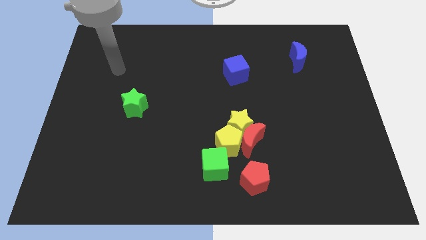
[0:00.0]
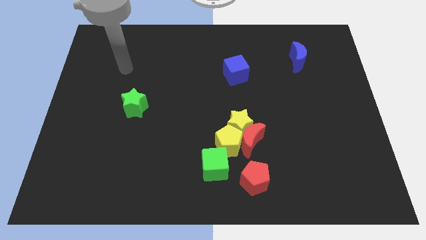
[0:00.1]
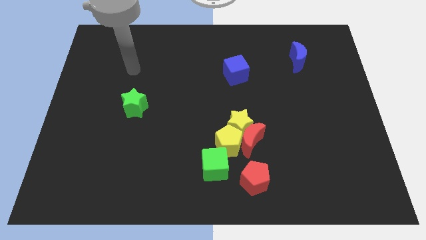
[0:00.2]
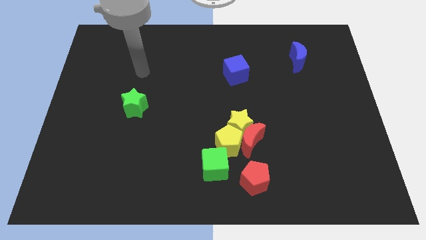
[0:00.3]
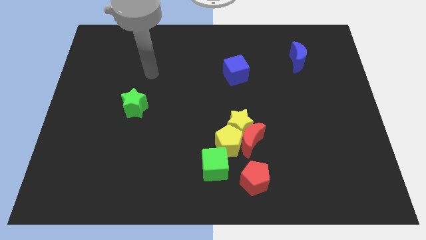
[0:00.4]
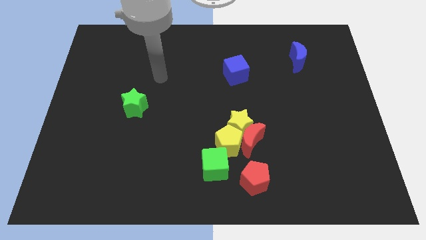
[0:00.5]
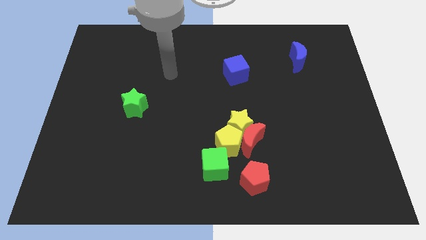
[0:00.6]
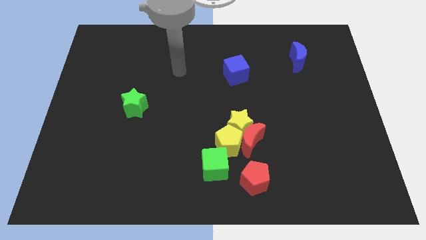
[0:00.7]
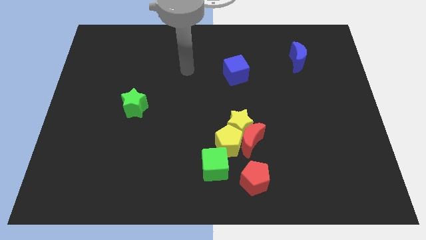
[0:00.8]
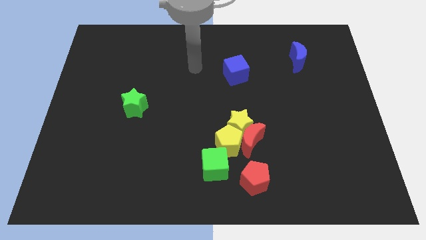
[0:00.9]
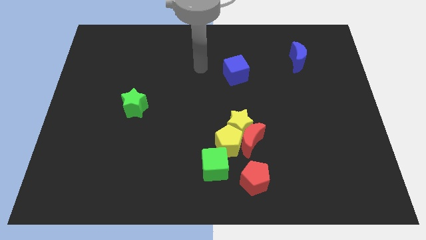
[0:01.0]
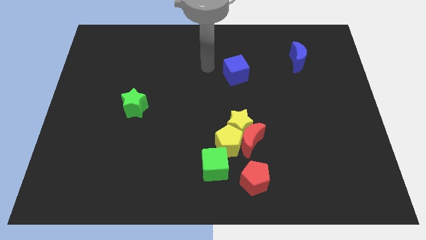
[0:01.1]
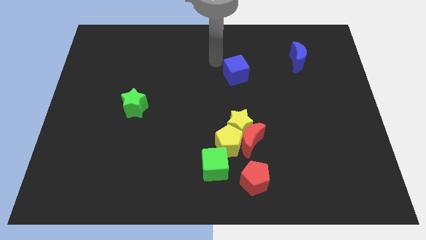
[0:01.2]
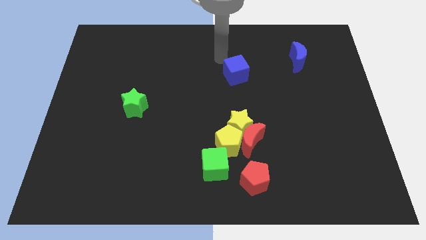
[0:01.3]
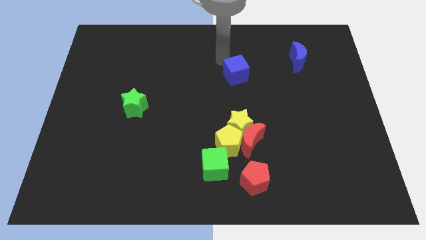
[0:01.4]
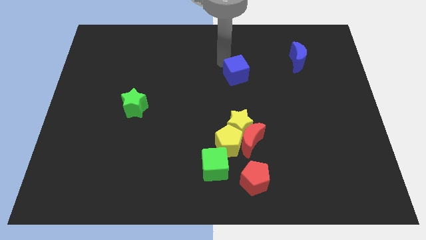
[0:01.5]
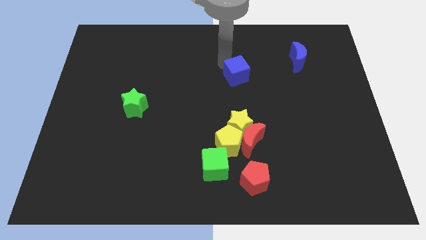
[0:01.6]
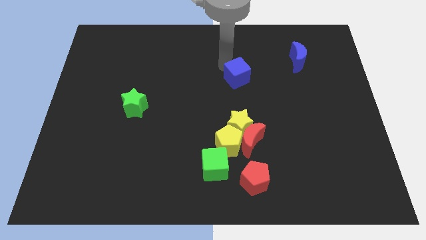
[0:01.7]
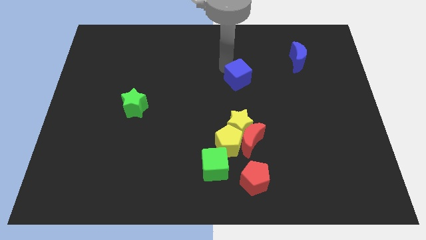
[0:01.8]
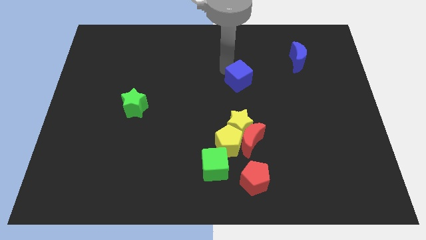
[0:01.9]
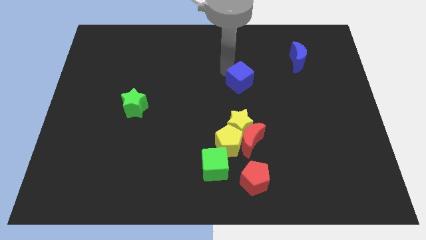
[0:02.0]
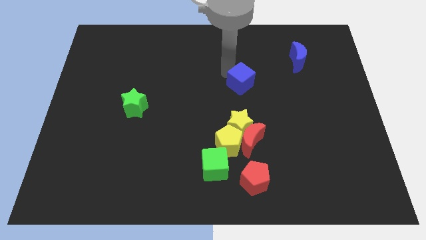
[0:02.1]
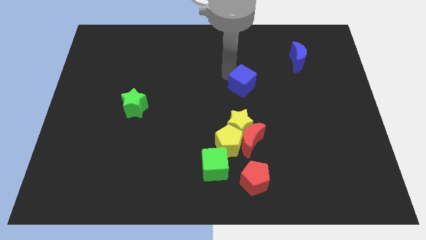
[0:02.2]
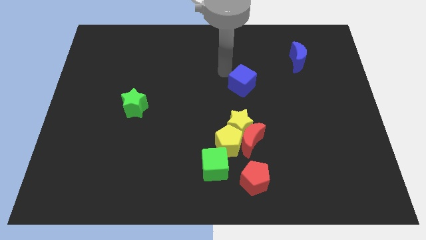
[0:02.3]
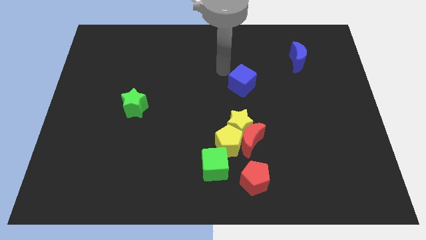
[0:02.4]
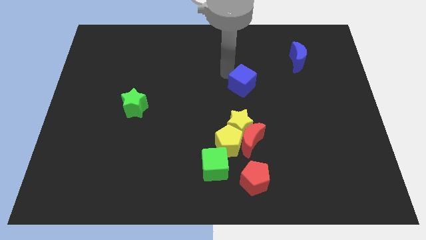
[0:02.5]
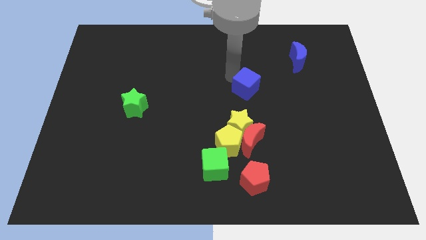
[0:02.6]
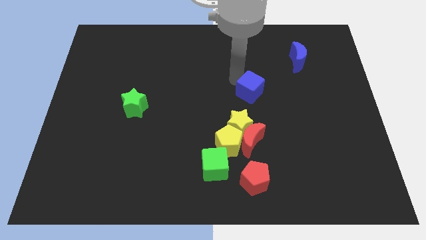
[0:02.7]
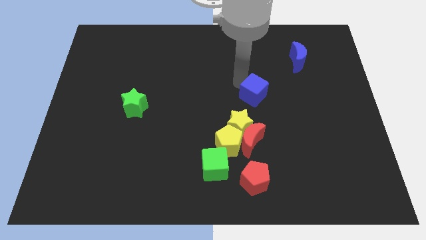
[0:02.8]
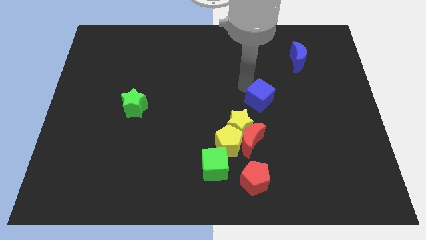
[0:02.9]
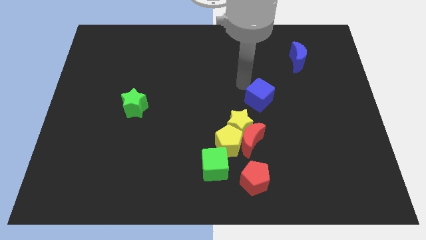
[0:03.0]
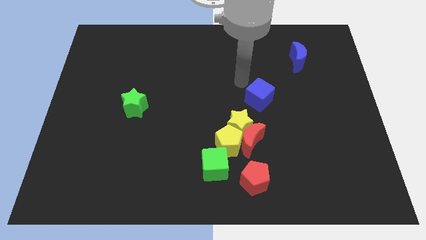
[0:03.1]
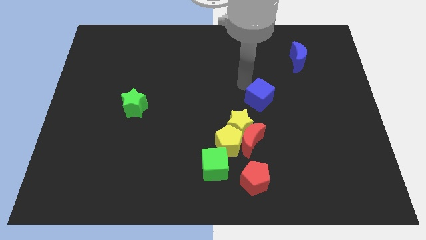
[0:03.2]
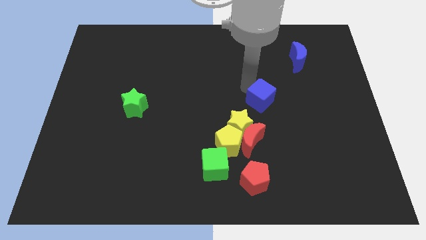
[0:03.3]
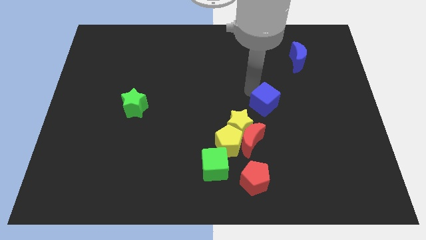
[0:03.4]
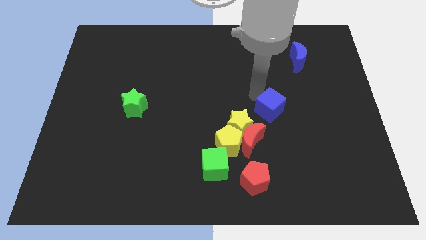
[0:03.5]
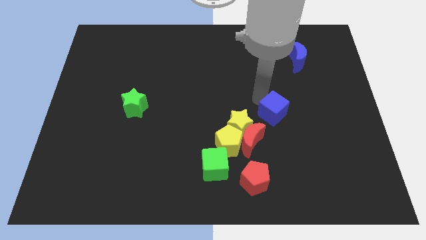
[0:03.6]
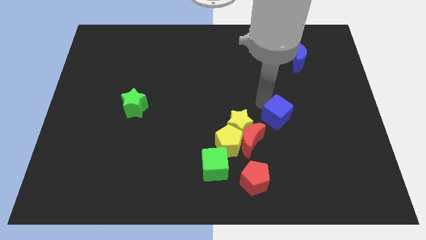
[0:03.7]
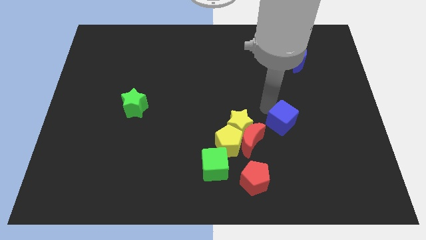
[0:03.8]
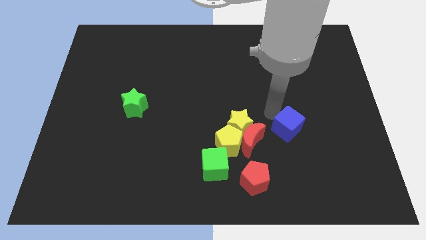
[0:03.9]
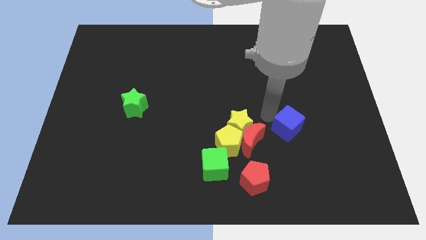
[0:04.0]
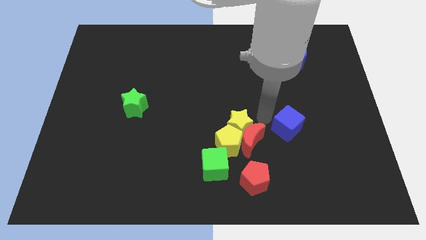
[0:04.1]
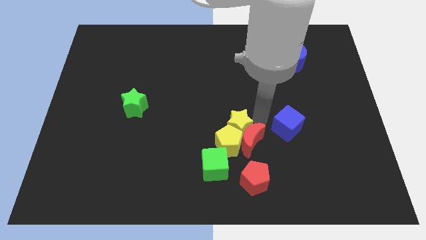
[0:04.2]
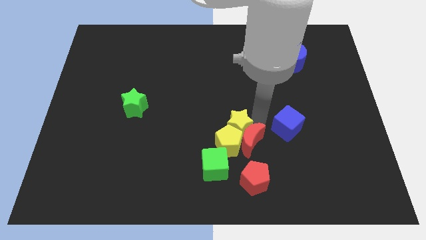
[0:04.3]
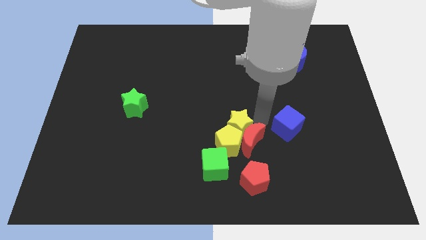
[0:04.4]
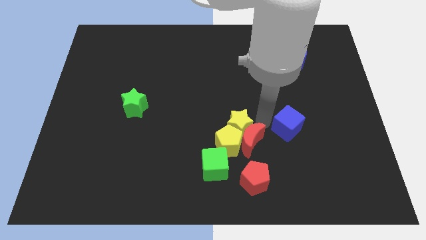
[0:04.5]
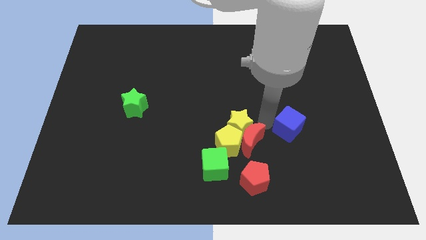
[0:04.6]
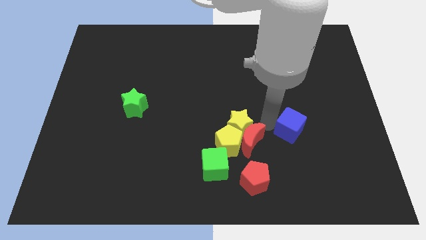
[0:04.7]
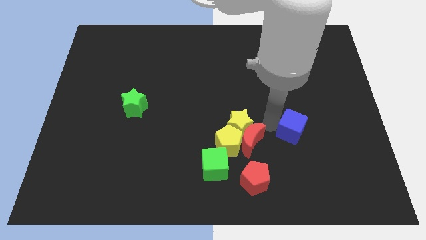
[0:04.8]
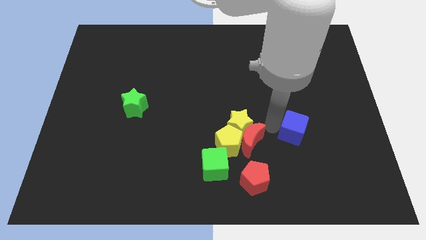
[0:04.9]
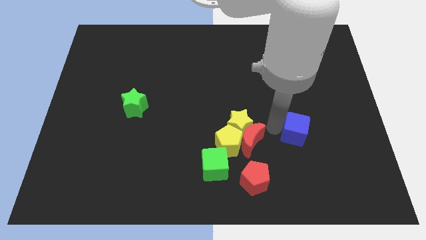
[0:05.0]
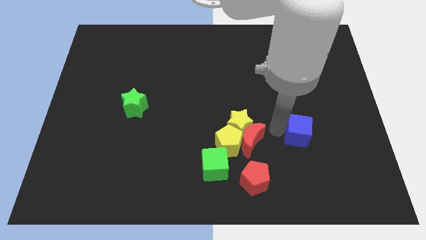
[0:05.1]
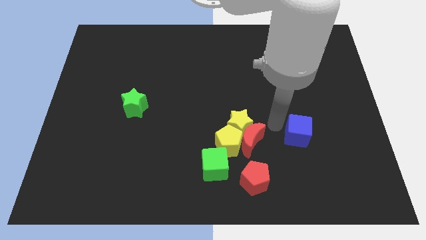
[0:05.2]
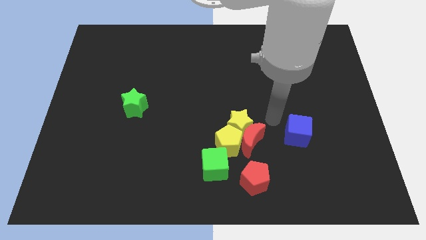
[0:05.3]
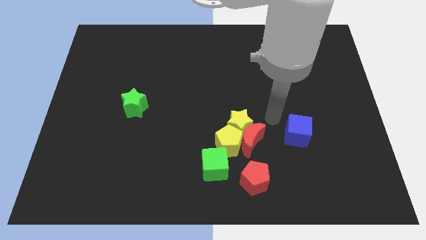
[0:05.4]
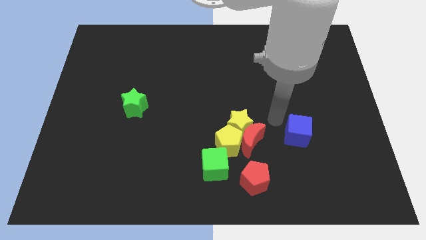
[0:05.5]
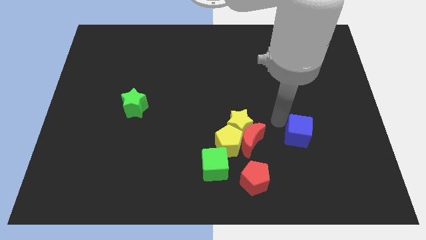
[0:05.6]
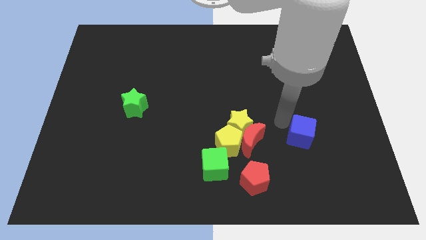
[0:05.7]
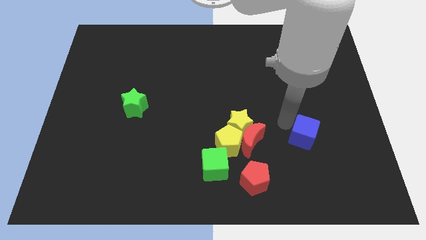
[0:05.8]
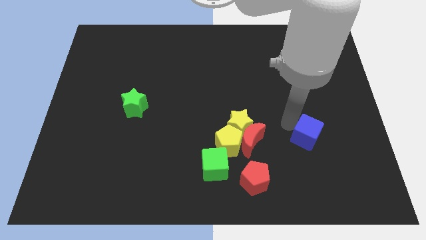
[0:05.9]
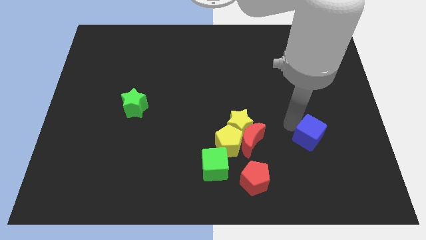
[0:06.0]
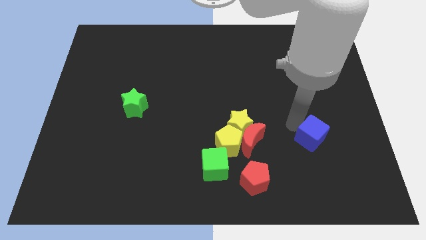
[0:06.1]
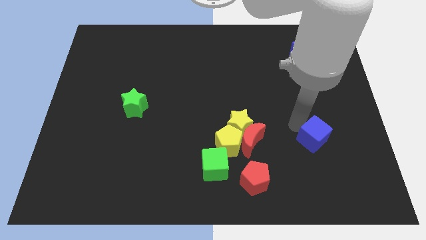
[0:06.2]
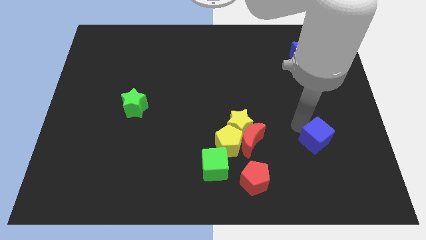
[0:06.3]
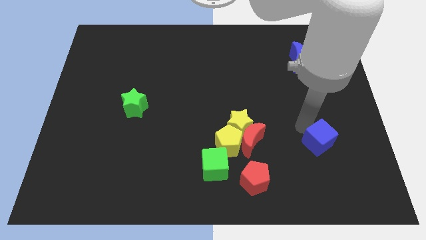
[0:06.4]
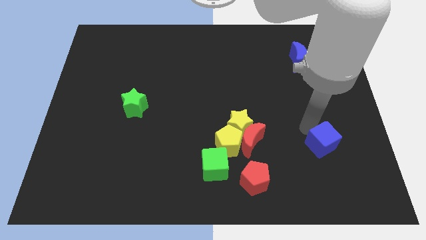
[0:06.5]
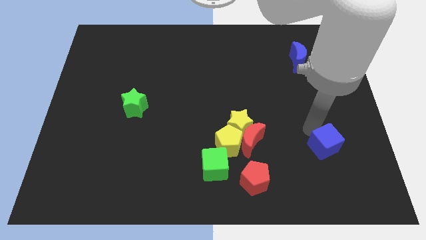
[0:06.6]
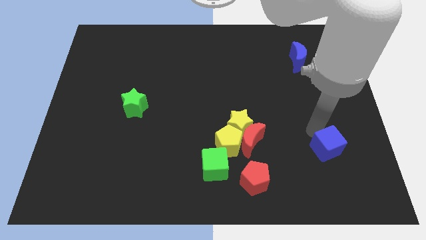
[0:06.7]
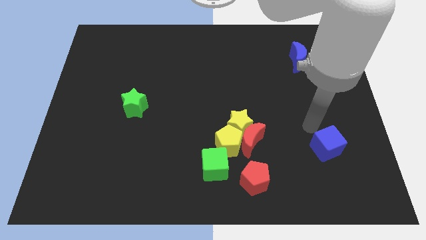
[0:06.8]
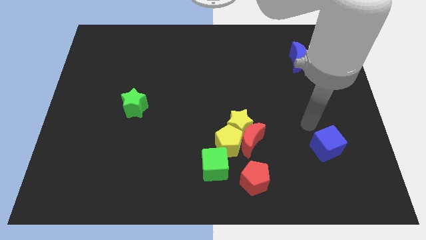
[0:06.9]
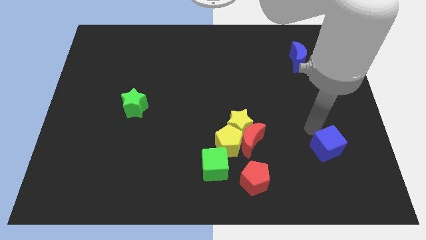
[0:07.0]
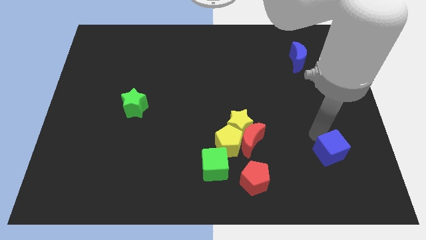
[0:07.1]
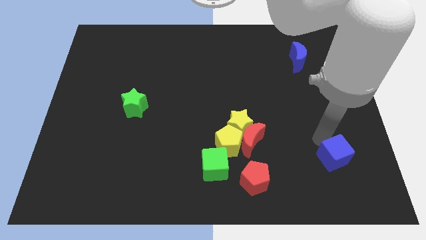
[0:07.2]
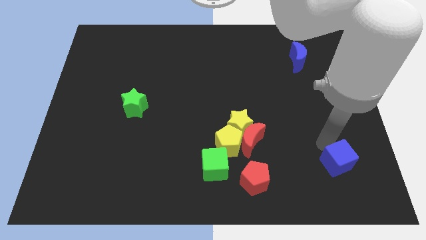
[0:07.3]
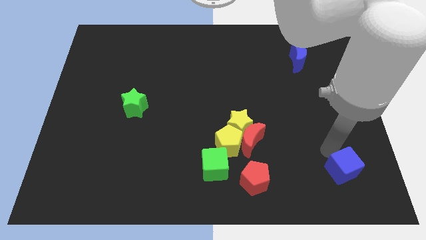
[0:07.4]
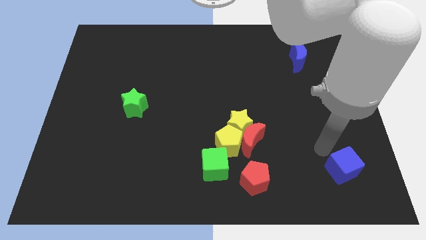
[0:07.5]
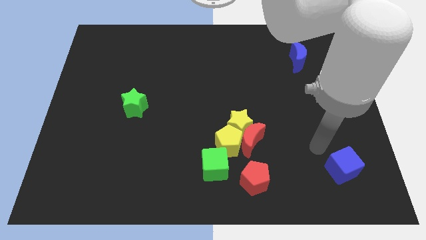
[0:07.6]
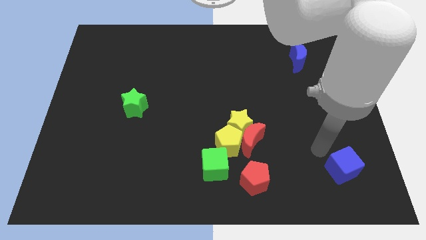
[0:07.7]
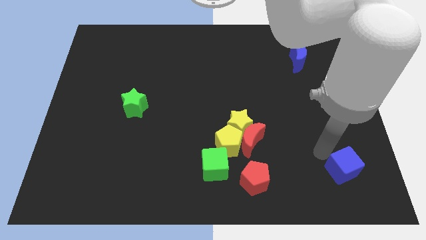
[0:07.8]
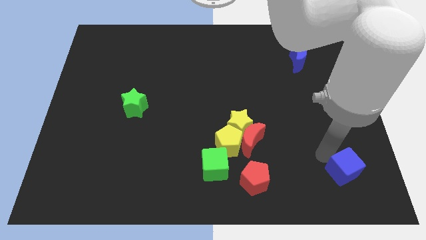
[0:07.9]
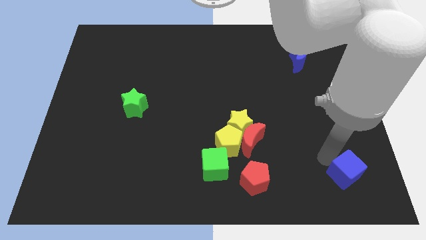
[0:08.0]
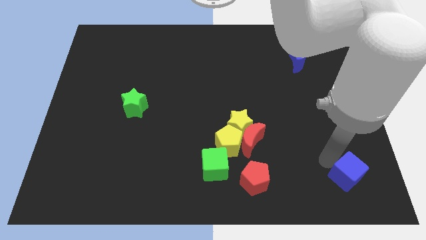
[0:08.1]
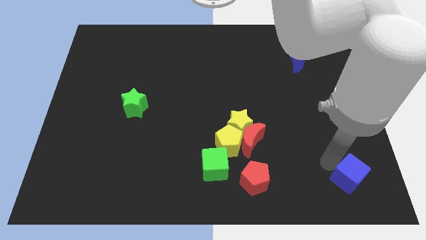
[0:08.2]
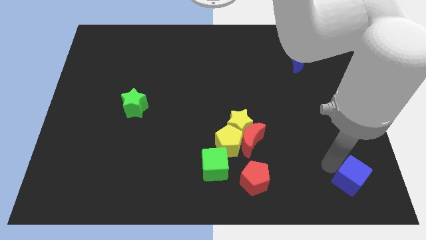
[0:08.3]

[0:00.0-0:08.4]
slide the blue cube to the lower right corner
